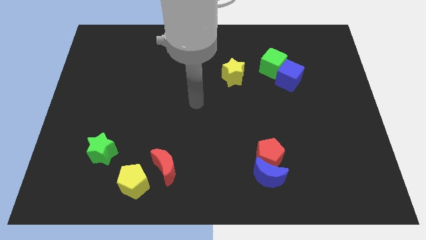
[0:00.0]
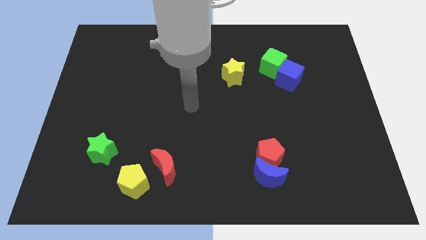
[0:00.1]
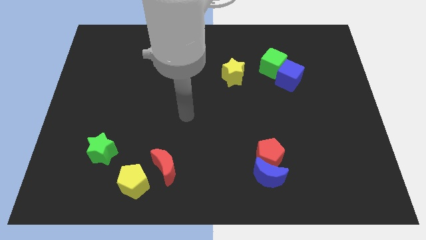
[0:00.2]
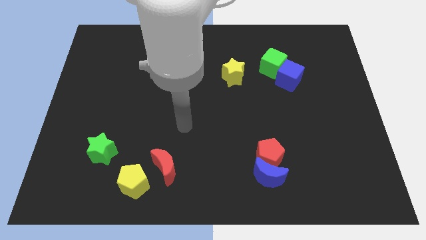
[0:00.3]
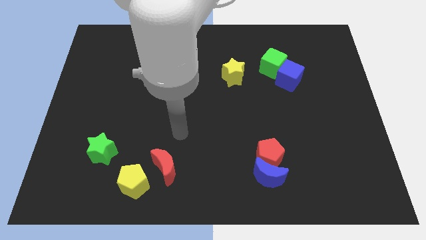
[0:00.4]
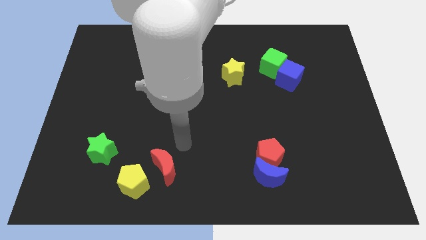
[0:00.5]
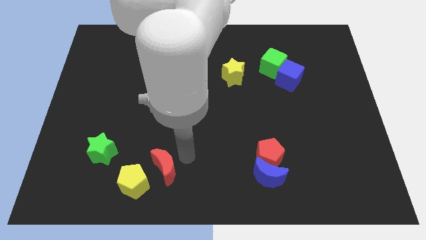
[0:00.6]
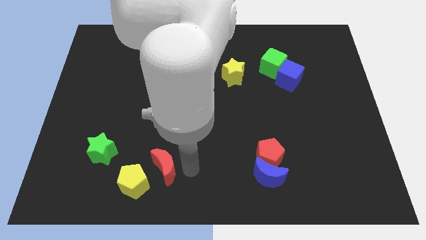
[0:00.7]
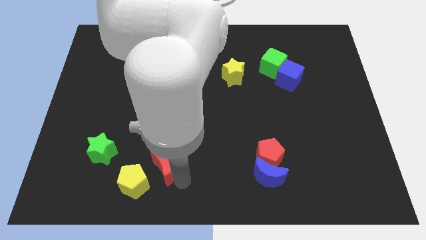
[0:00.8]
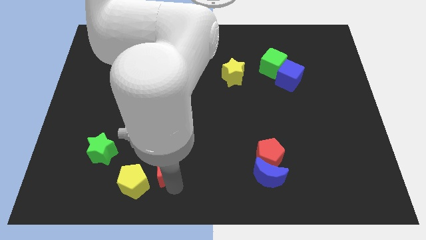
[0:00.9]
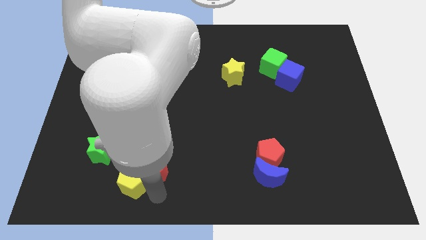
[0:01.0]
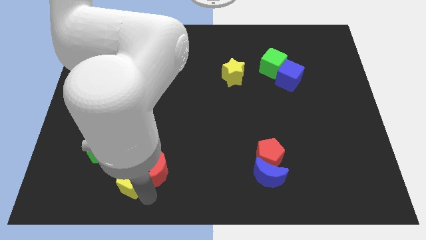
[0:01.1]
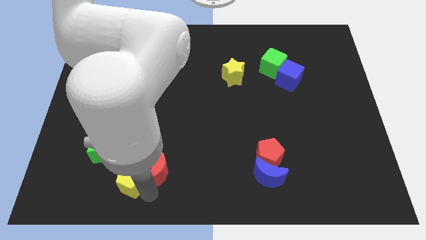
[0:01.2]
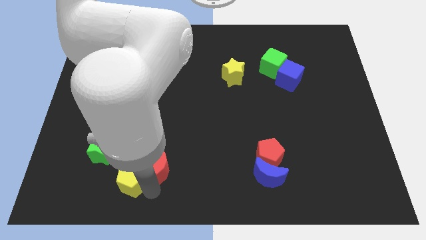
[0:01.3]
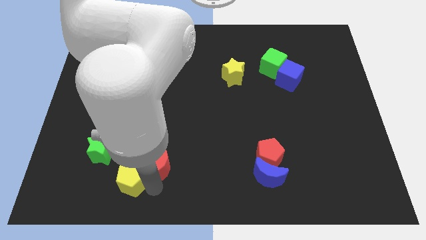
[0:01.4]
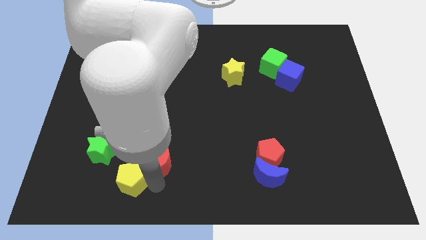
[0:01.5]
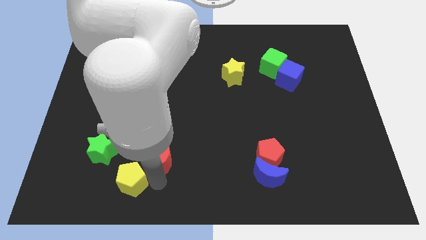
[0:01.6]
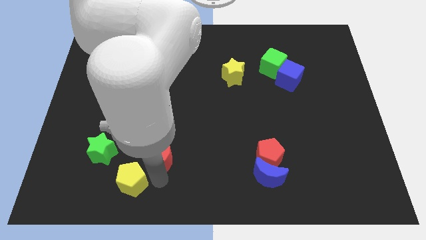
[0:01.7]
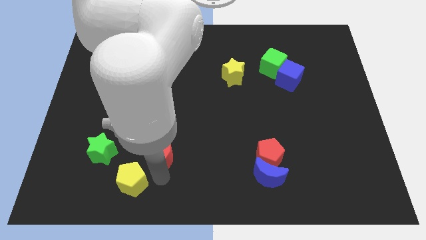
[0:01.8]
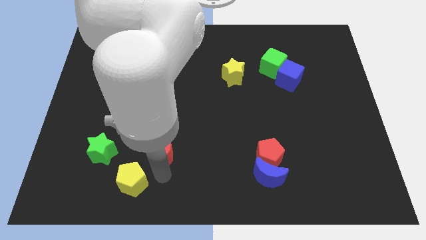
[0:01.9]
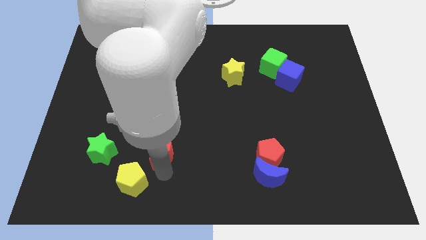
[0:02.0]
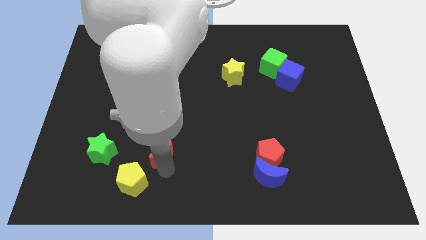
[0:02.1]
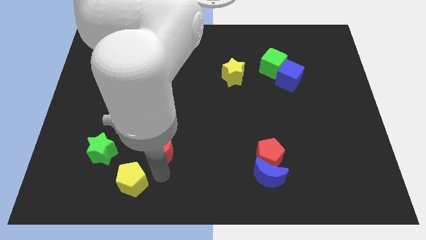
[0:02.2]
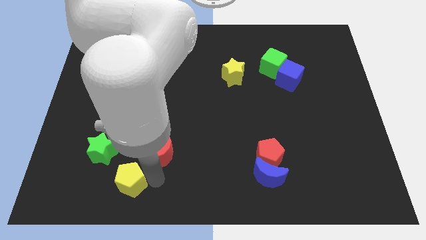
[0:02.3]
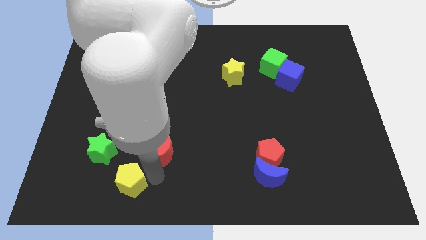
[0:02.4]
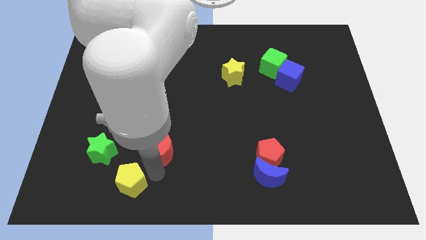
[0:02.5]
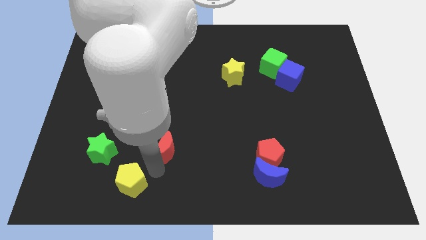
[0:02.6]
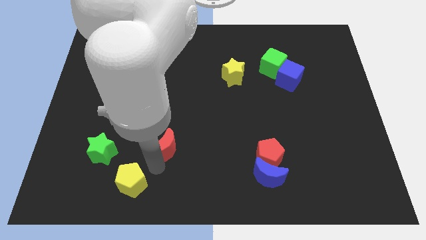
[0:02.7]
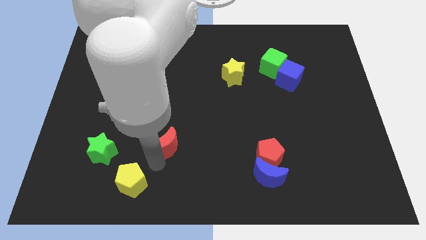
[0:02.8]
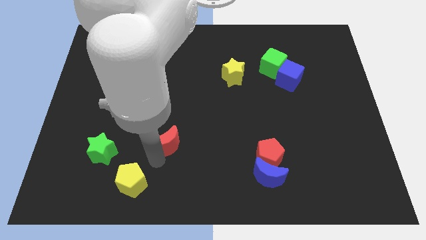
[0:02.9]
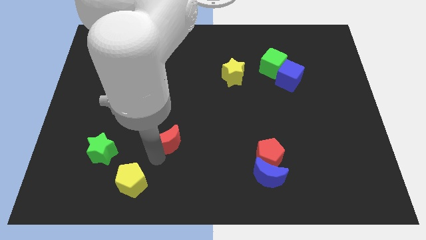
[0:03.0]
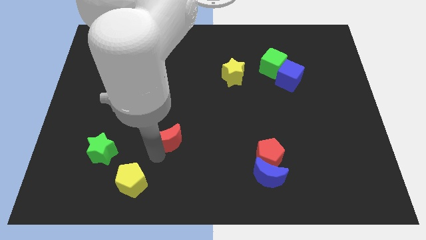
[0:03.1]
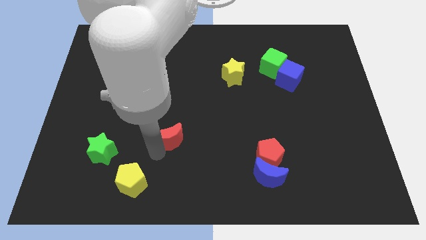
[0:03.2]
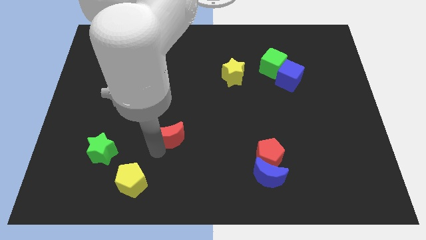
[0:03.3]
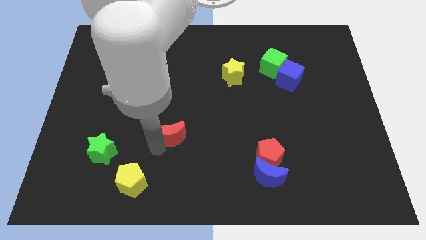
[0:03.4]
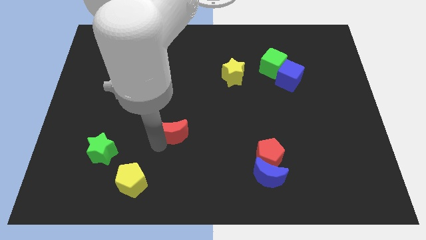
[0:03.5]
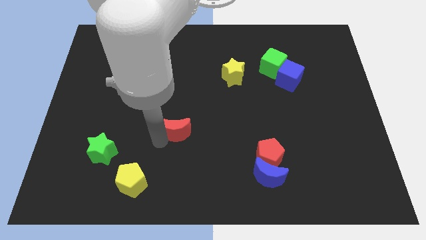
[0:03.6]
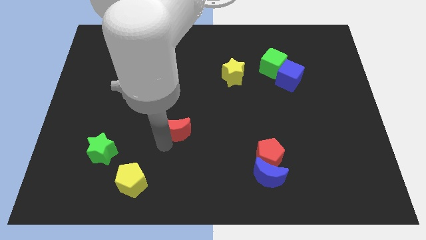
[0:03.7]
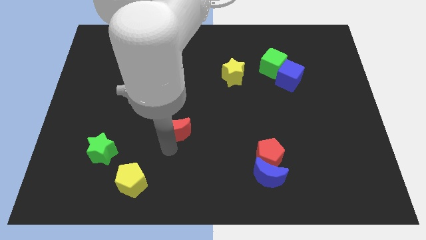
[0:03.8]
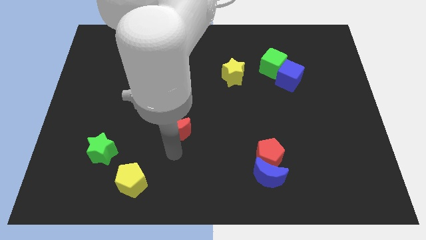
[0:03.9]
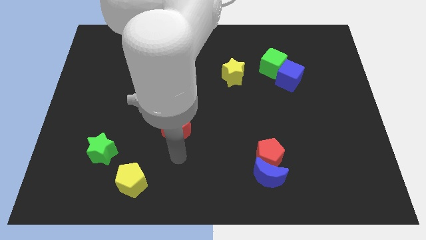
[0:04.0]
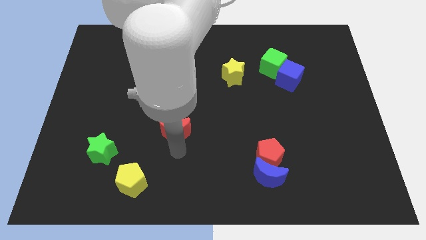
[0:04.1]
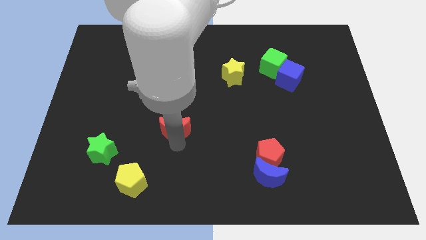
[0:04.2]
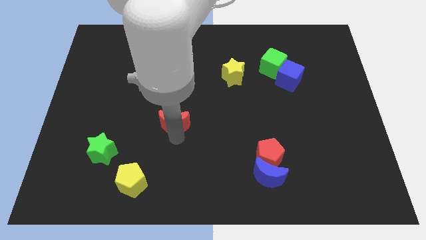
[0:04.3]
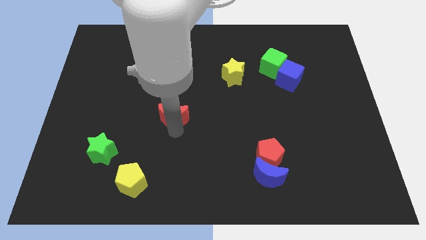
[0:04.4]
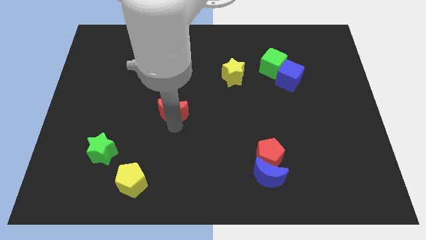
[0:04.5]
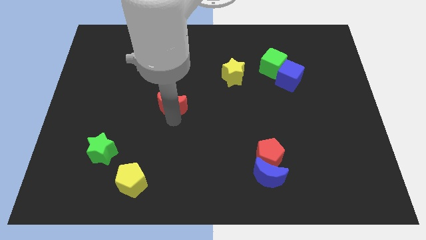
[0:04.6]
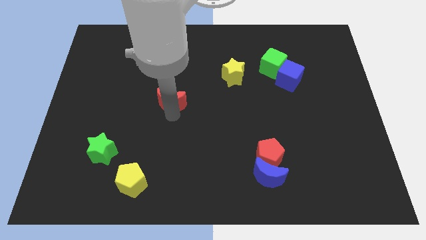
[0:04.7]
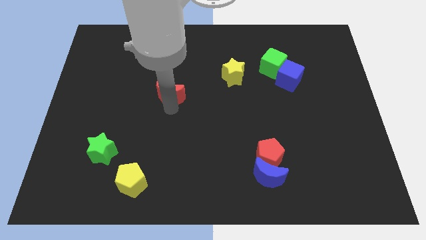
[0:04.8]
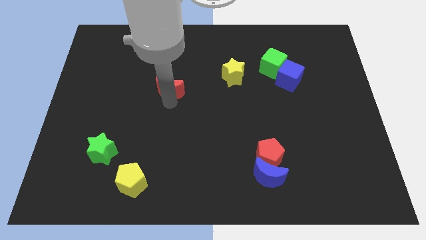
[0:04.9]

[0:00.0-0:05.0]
slide the red moon up

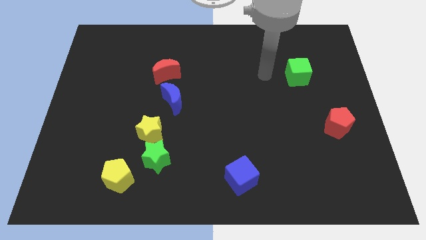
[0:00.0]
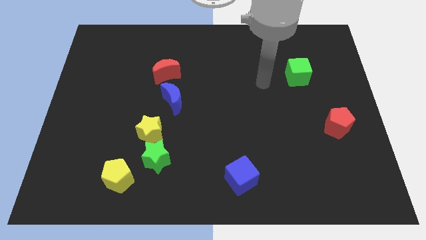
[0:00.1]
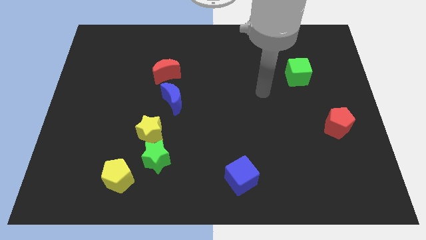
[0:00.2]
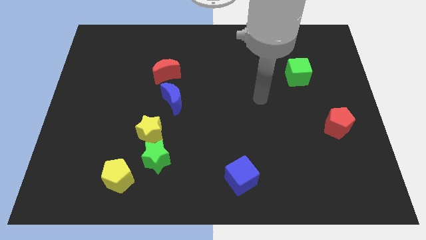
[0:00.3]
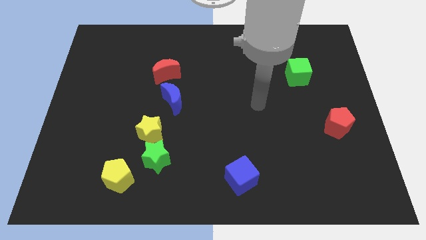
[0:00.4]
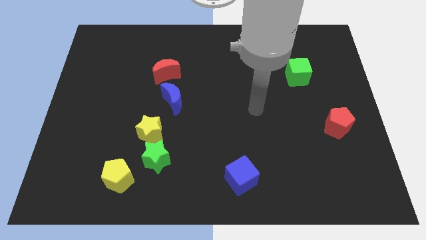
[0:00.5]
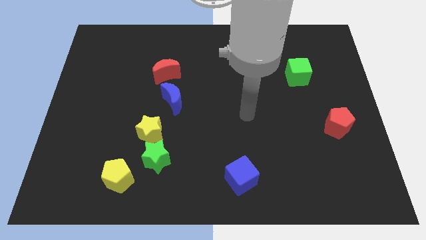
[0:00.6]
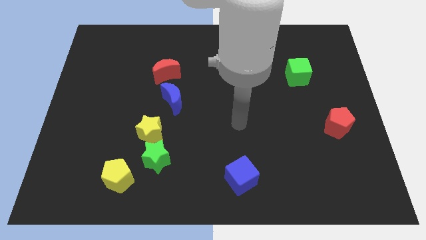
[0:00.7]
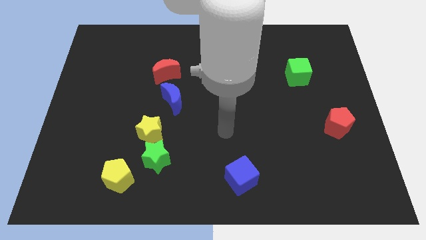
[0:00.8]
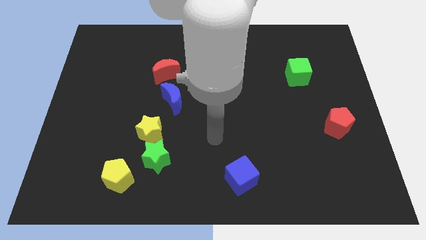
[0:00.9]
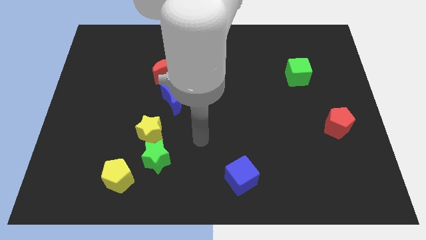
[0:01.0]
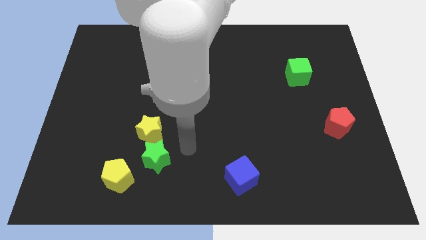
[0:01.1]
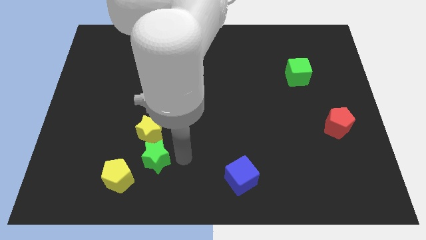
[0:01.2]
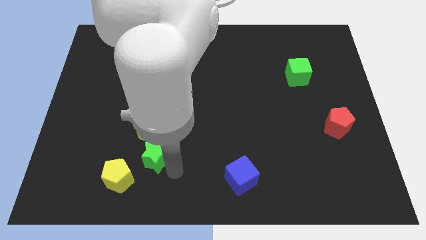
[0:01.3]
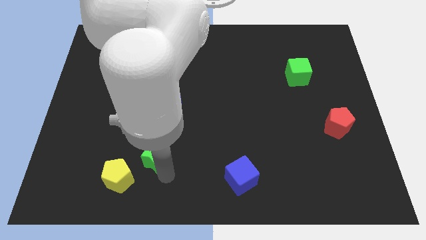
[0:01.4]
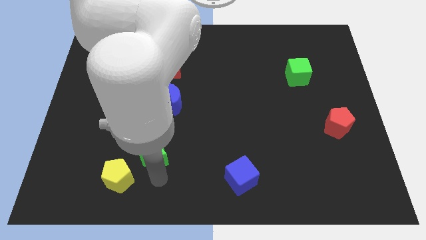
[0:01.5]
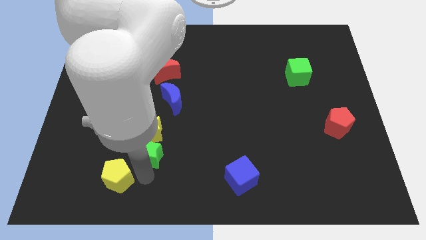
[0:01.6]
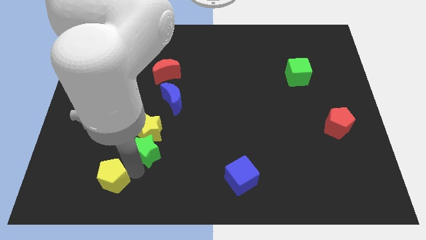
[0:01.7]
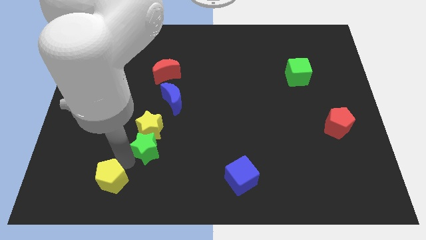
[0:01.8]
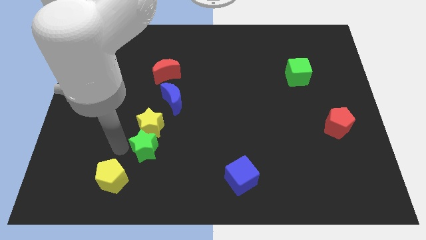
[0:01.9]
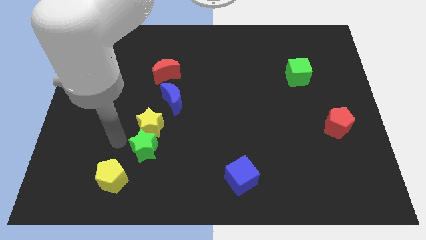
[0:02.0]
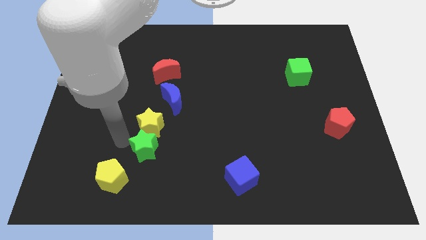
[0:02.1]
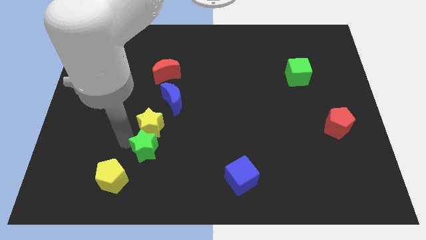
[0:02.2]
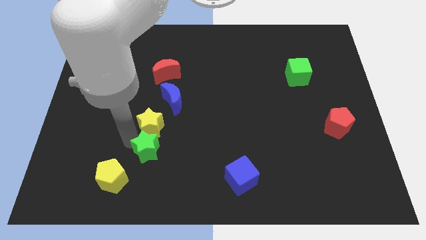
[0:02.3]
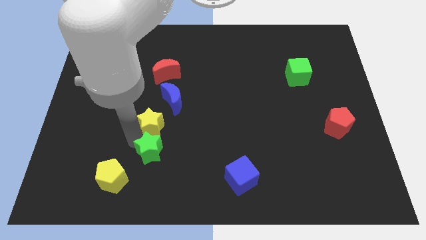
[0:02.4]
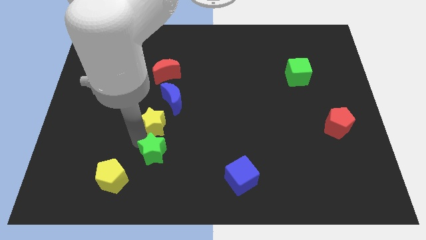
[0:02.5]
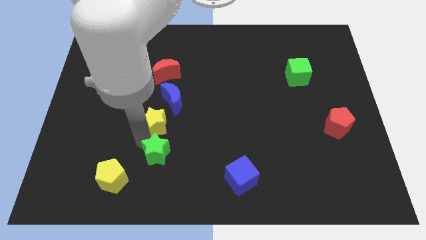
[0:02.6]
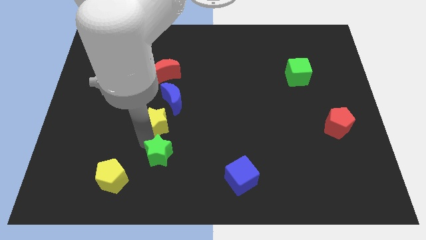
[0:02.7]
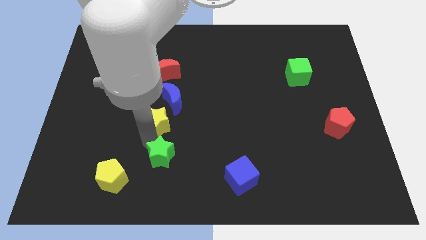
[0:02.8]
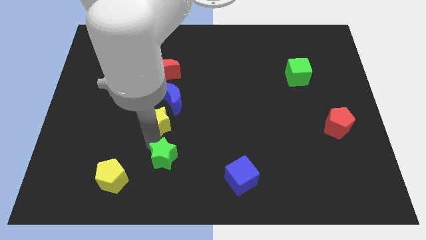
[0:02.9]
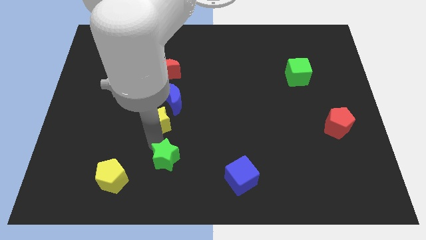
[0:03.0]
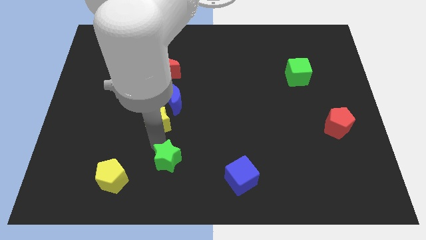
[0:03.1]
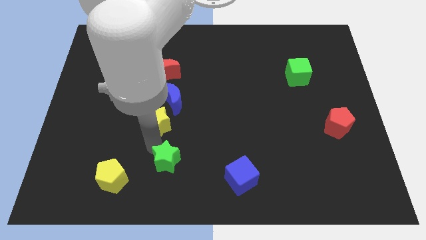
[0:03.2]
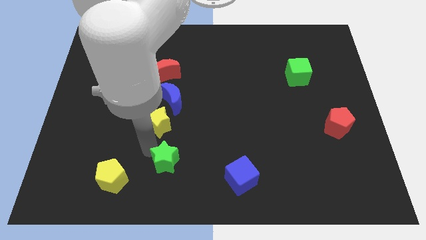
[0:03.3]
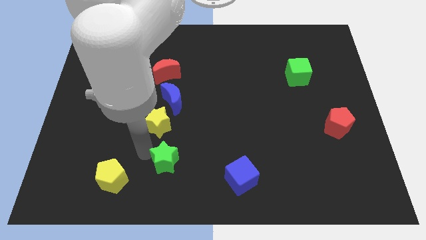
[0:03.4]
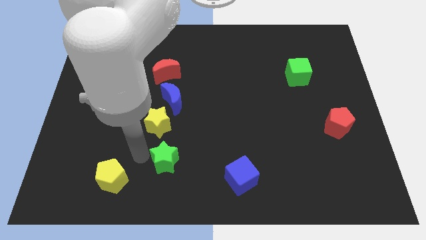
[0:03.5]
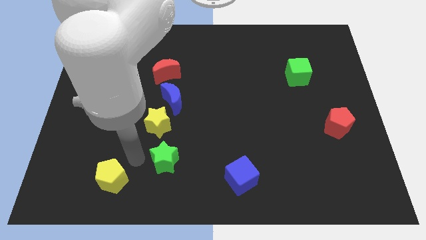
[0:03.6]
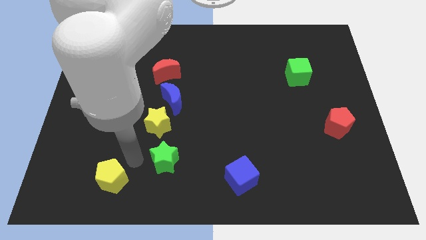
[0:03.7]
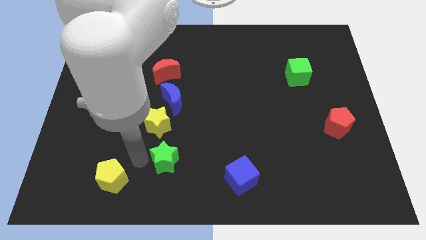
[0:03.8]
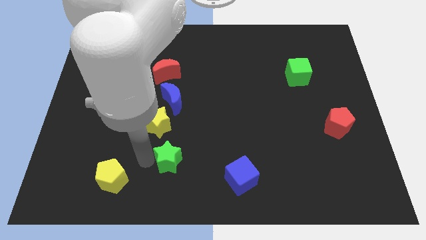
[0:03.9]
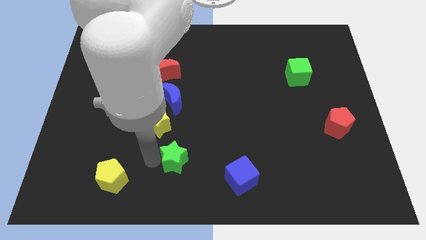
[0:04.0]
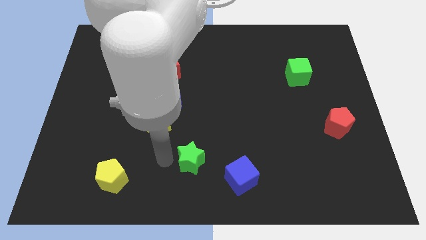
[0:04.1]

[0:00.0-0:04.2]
push the green star a little right
